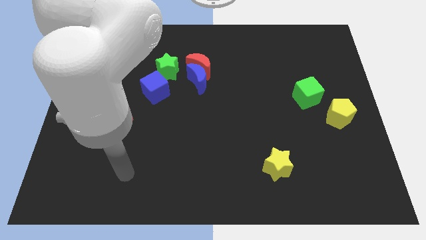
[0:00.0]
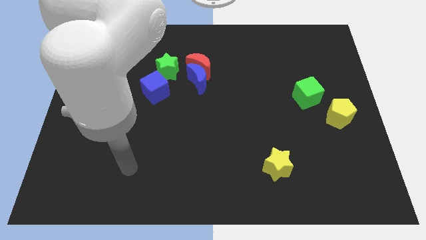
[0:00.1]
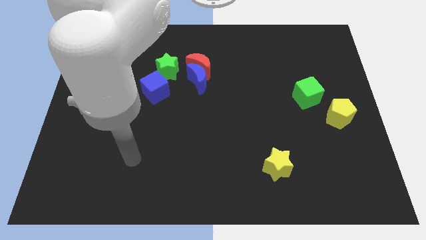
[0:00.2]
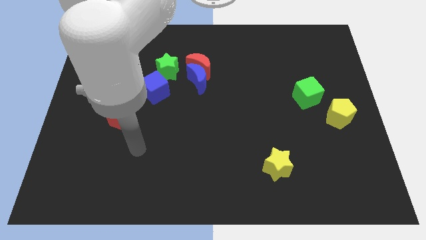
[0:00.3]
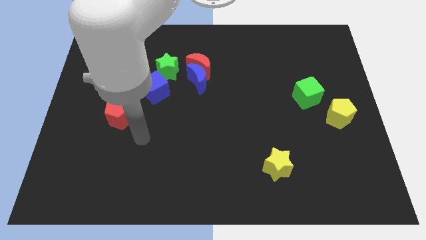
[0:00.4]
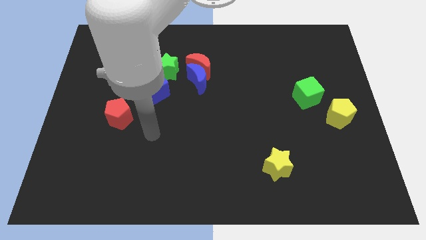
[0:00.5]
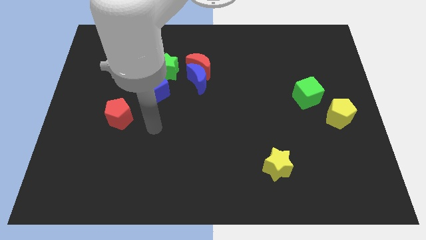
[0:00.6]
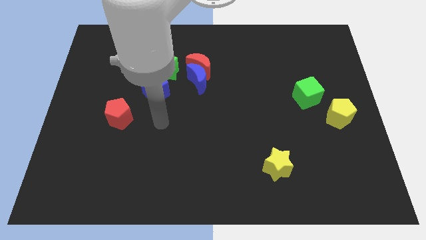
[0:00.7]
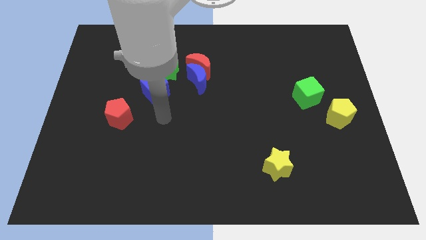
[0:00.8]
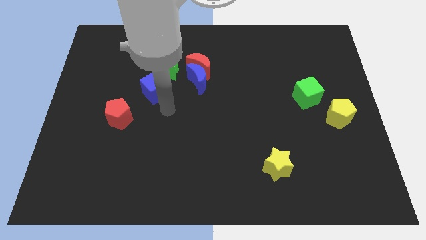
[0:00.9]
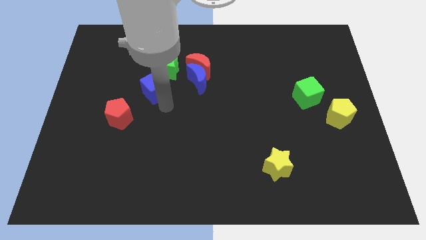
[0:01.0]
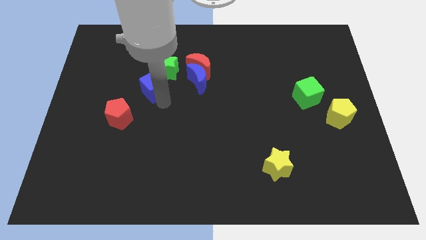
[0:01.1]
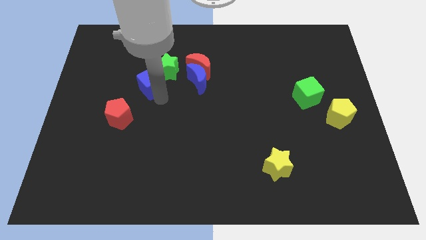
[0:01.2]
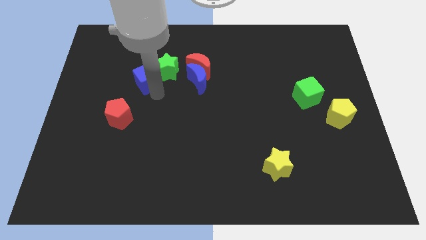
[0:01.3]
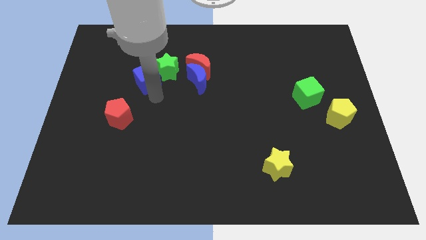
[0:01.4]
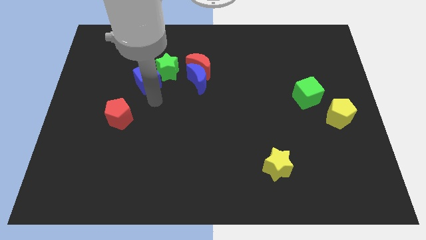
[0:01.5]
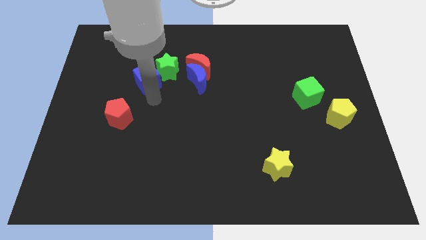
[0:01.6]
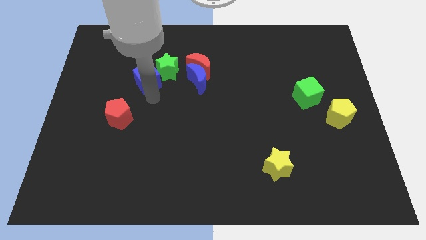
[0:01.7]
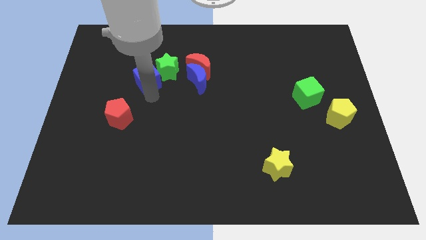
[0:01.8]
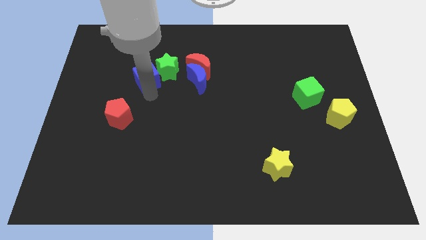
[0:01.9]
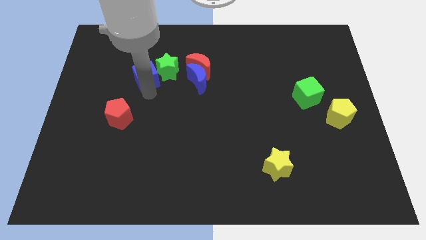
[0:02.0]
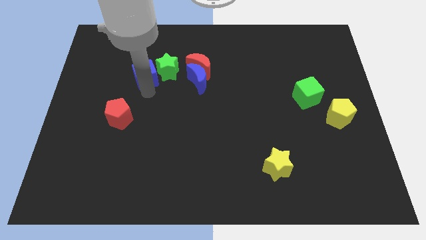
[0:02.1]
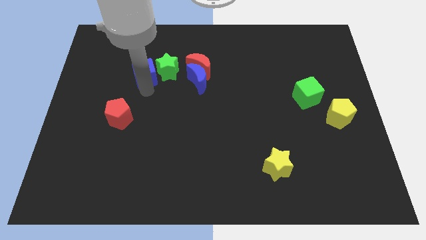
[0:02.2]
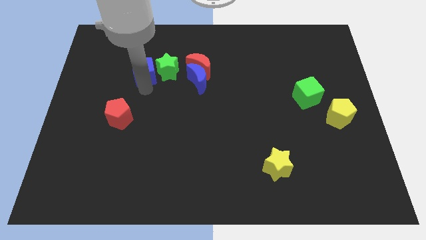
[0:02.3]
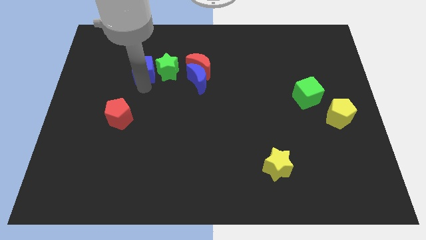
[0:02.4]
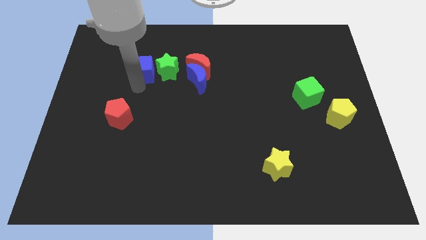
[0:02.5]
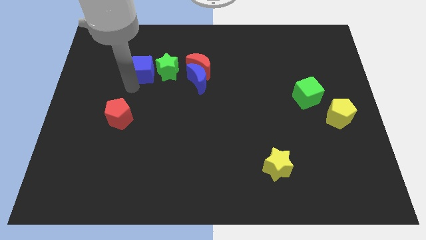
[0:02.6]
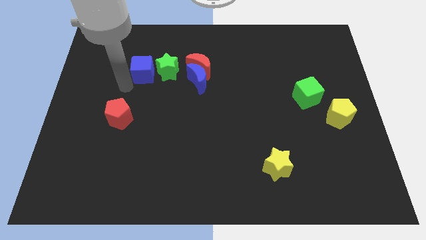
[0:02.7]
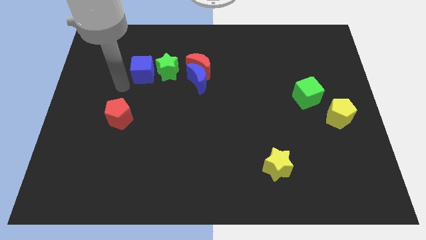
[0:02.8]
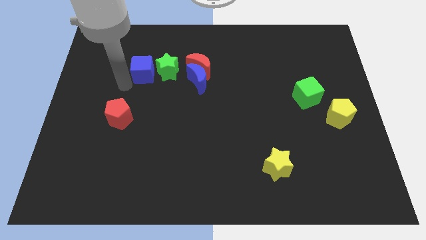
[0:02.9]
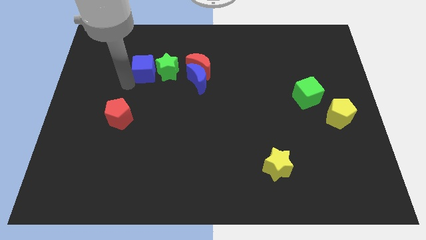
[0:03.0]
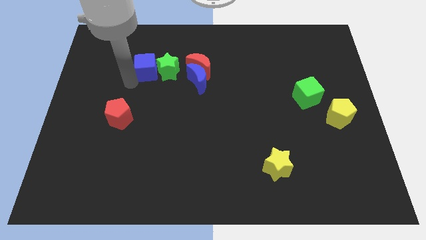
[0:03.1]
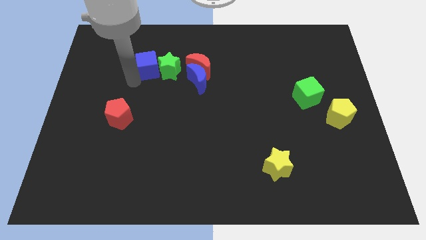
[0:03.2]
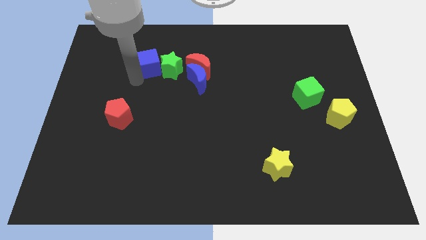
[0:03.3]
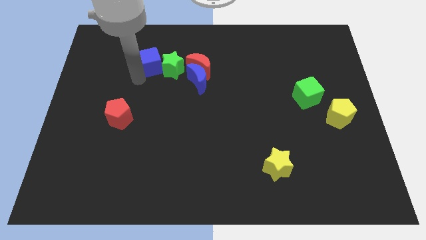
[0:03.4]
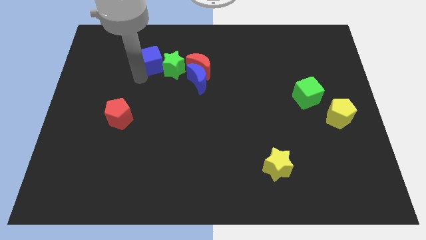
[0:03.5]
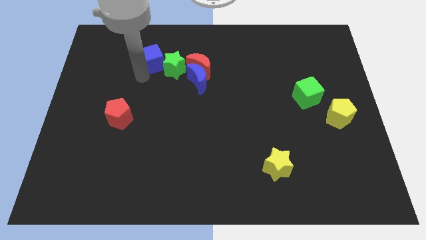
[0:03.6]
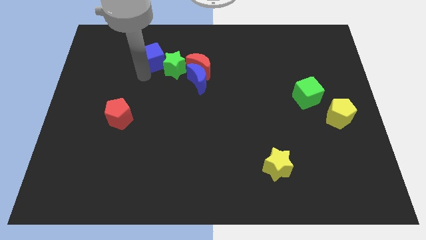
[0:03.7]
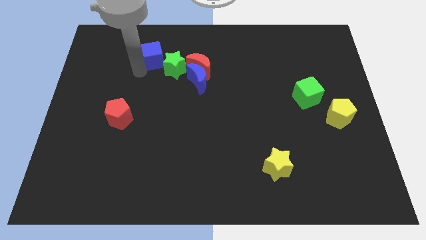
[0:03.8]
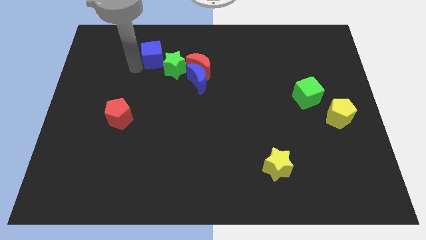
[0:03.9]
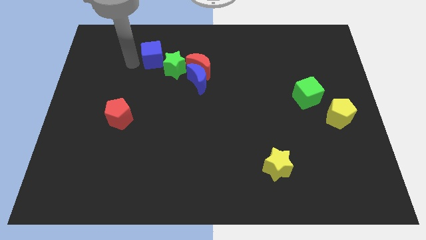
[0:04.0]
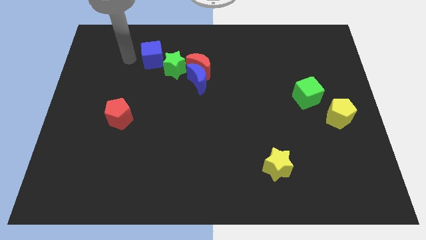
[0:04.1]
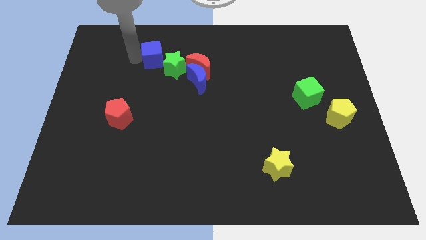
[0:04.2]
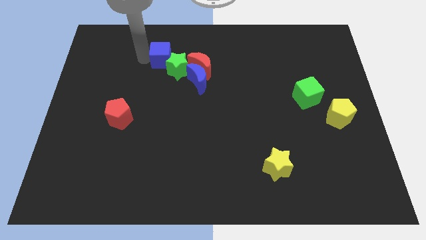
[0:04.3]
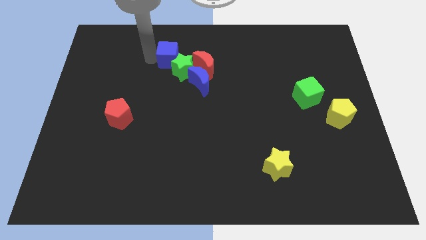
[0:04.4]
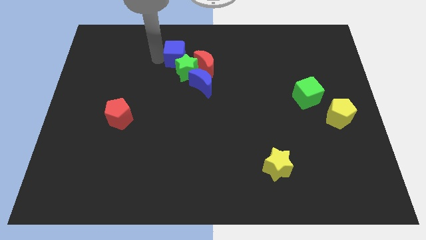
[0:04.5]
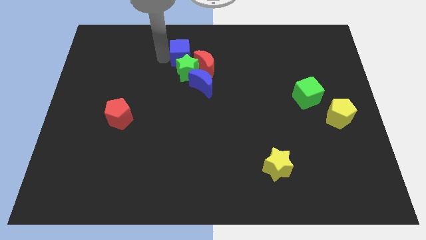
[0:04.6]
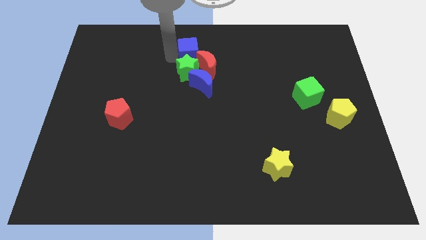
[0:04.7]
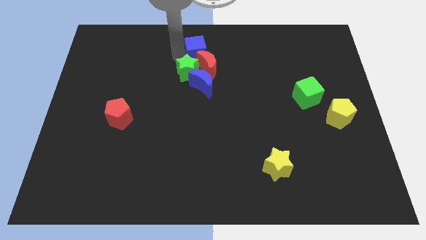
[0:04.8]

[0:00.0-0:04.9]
slide the blue cube to the top
